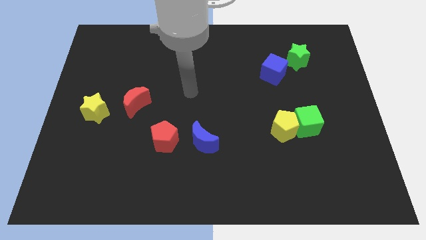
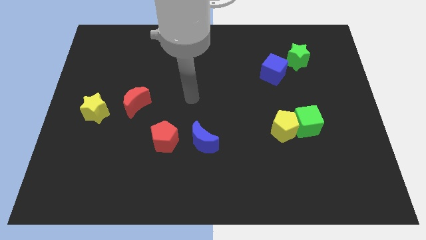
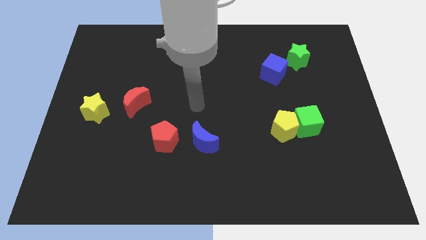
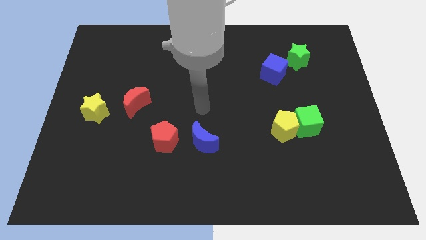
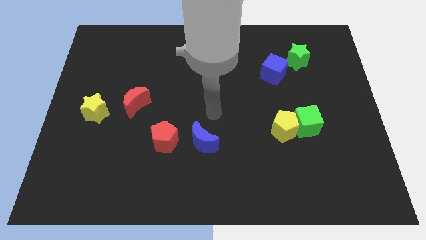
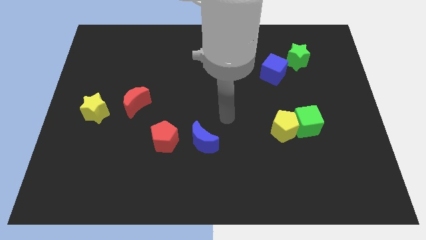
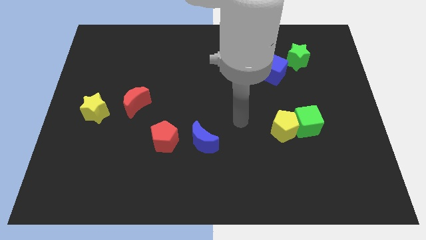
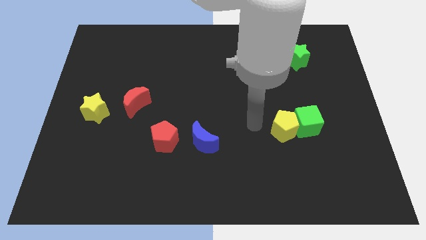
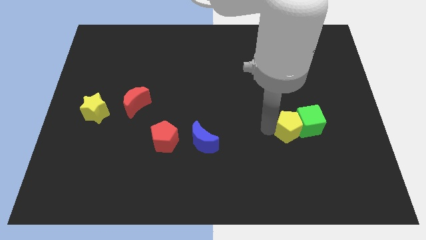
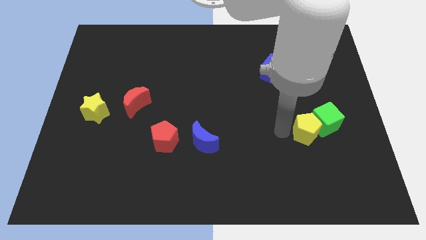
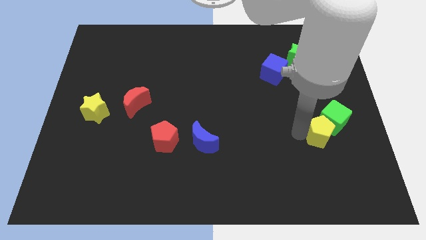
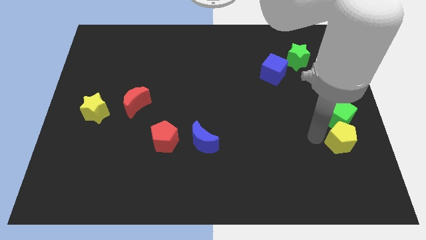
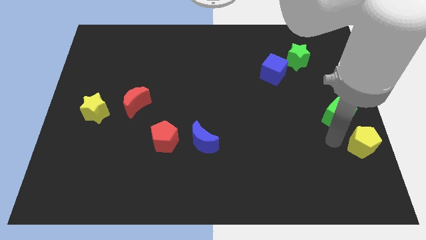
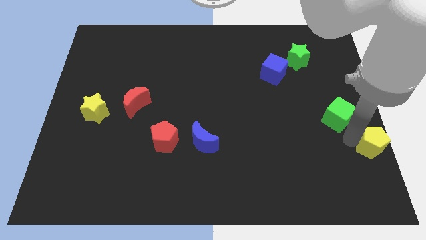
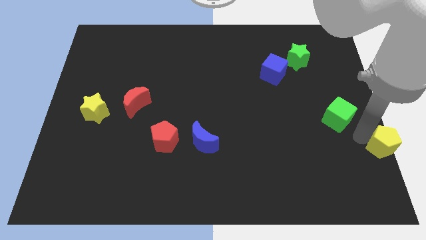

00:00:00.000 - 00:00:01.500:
separate the green cube from the yellow pentagon

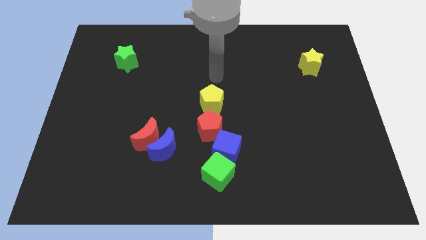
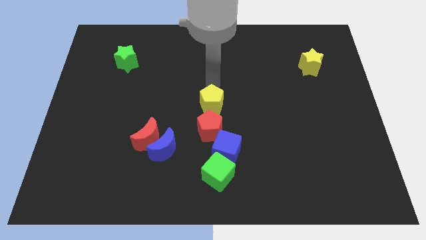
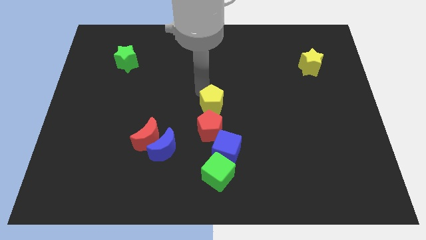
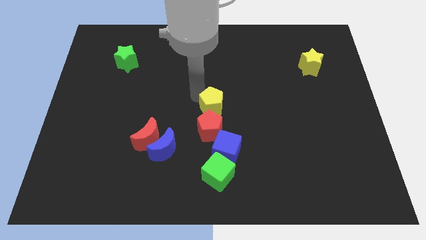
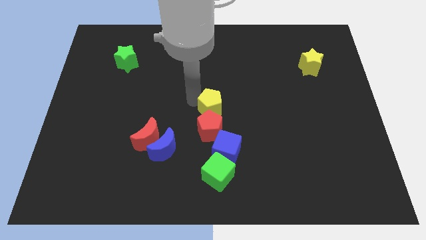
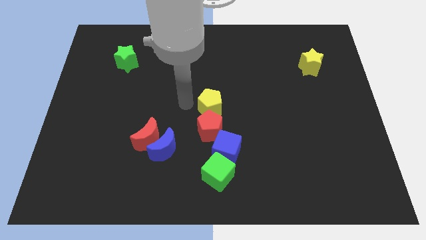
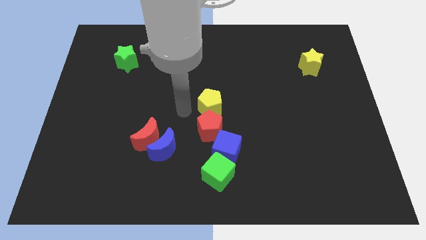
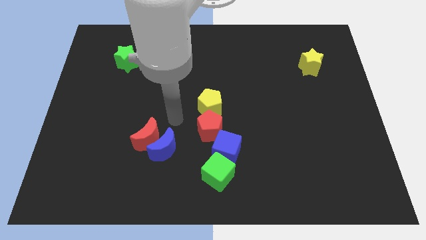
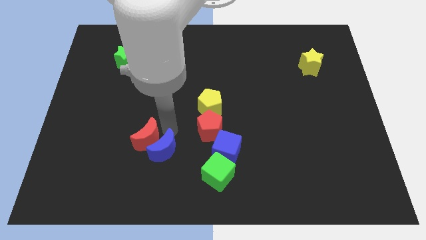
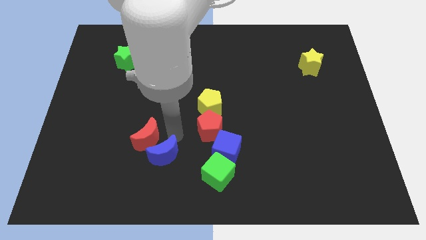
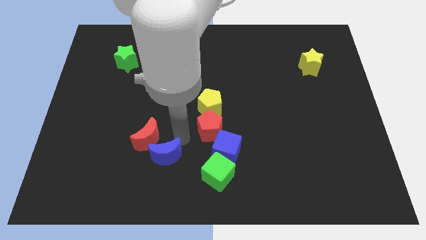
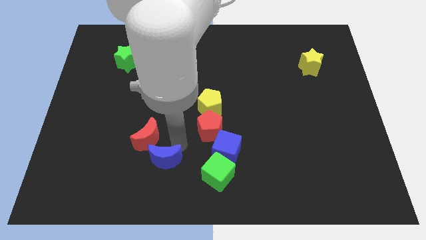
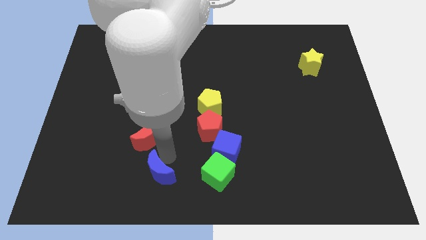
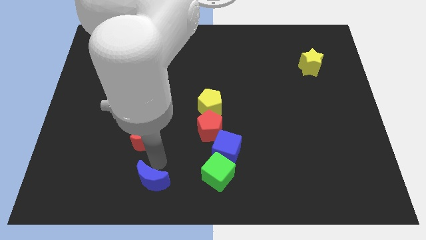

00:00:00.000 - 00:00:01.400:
move the red moon away from the blue moon

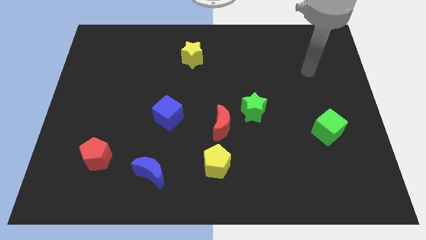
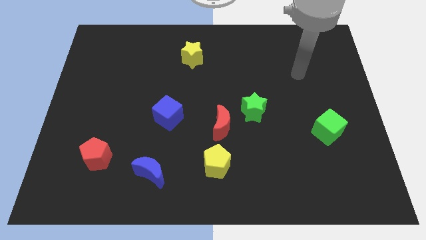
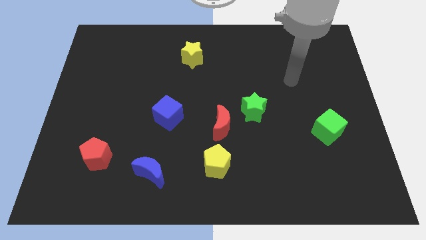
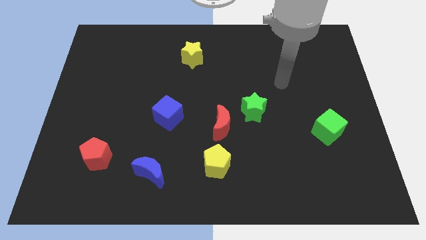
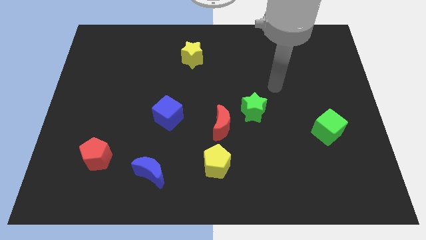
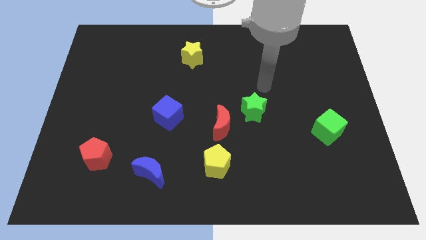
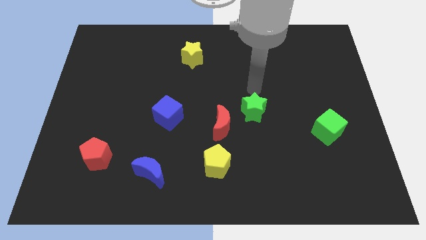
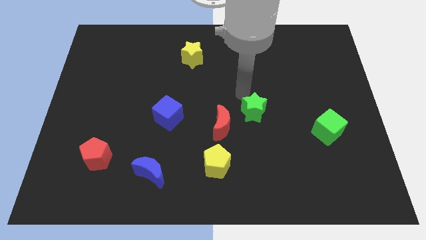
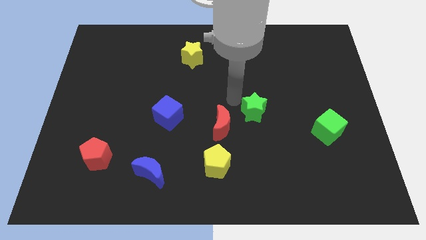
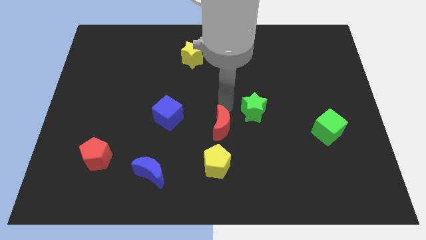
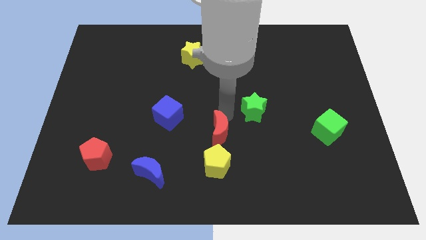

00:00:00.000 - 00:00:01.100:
pull the green star apart from the red moon

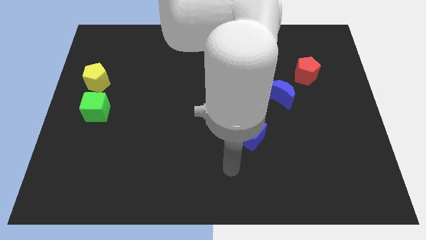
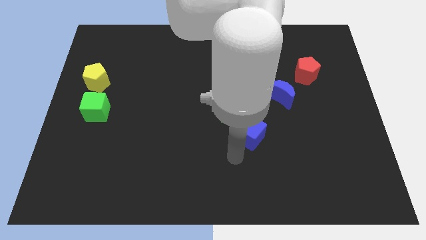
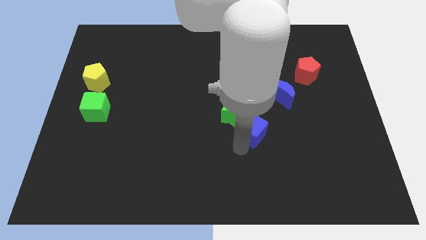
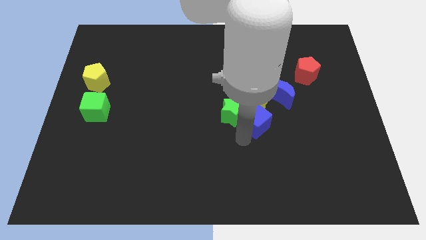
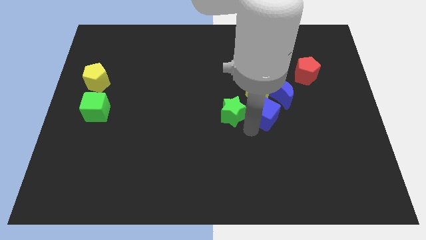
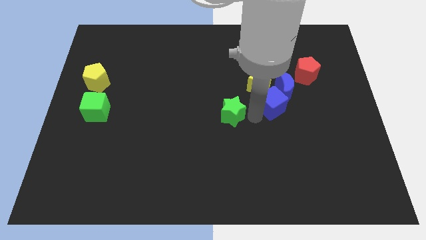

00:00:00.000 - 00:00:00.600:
pull the green star apart from the blue cube and yellow star

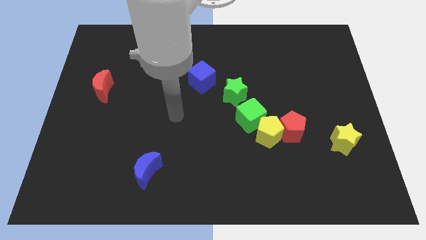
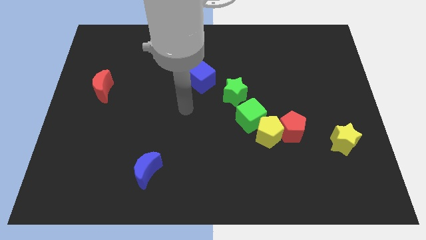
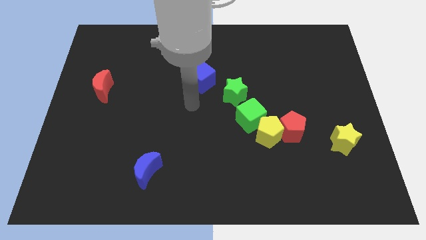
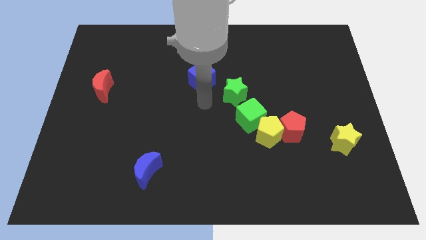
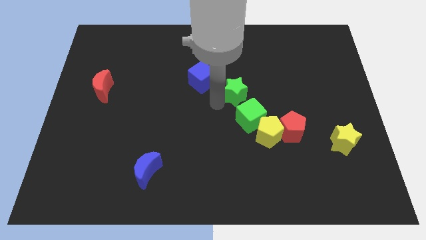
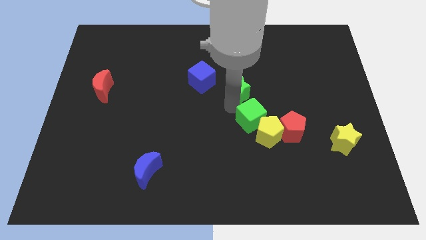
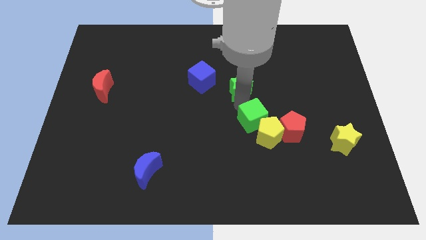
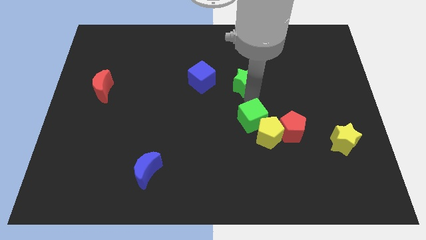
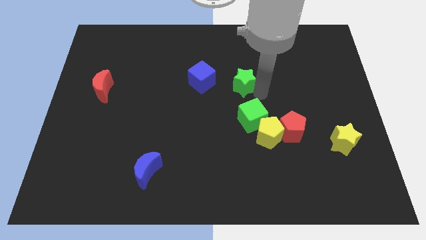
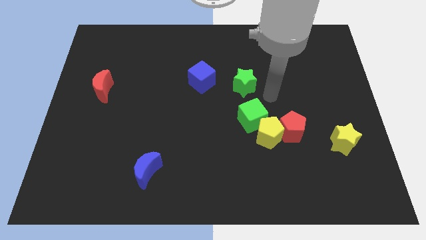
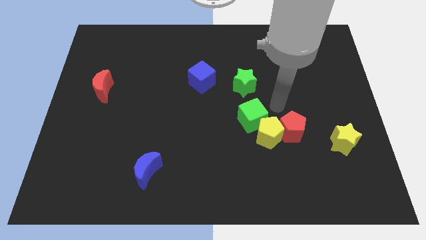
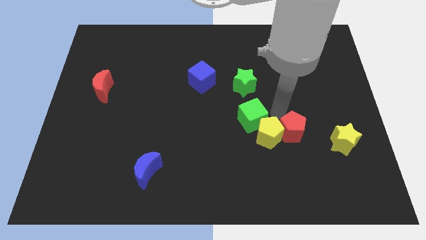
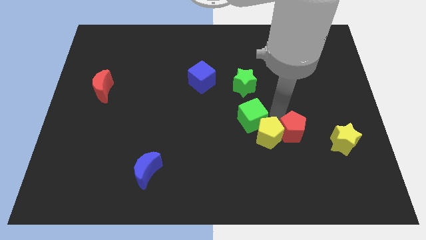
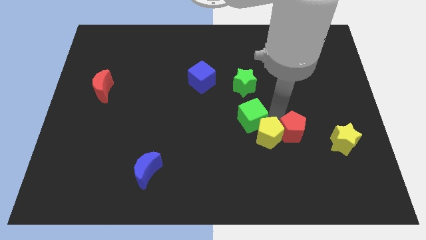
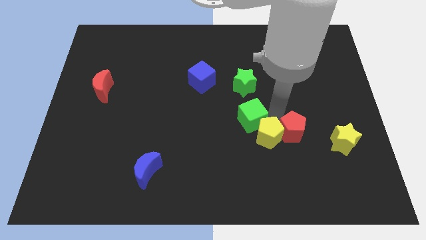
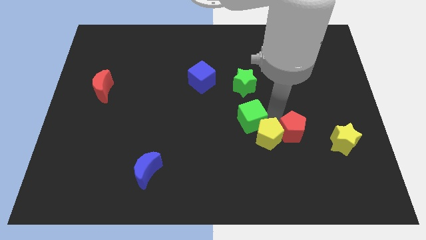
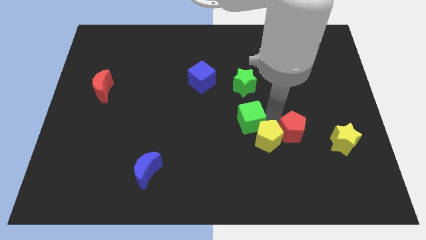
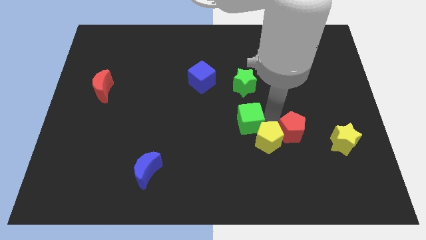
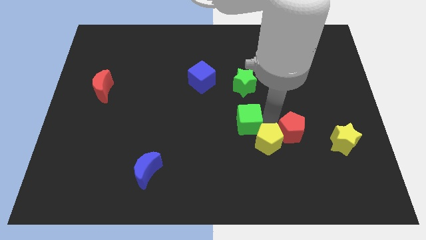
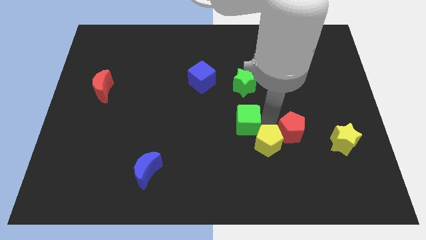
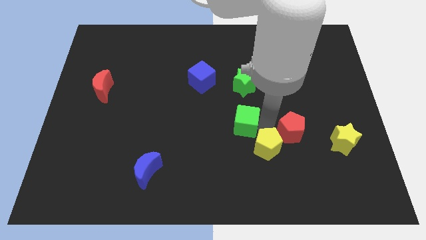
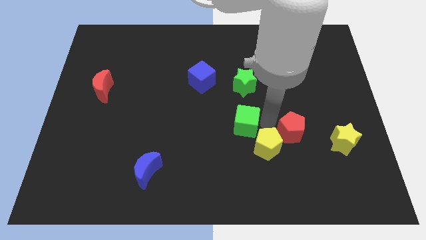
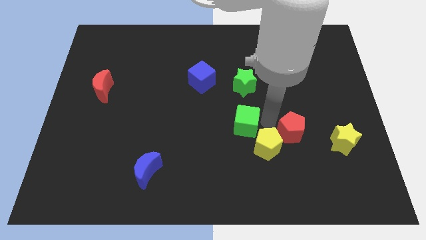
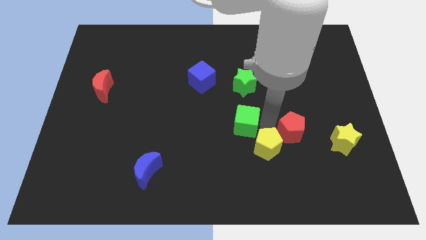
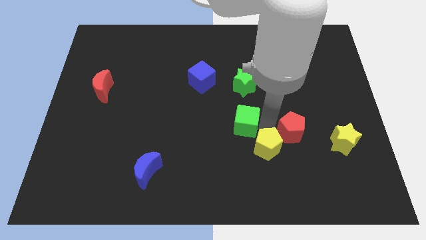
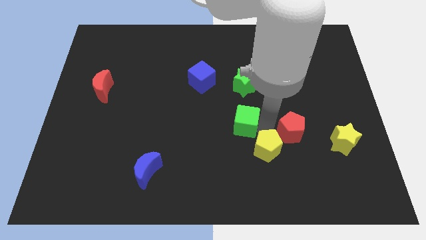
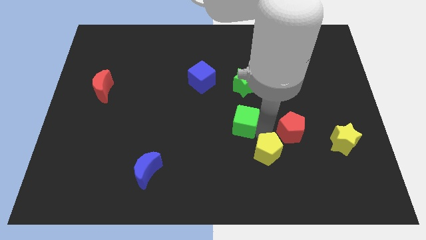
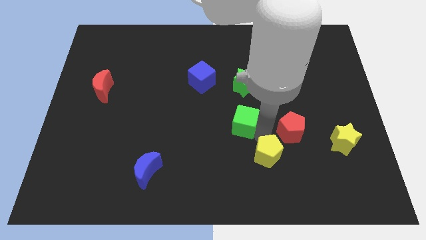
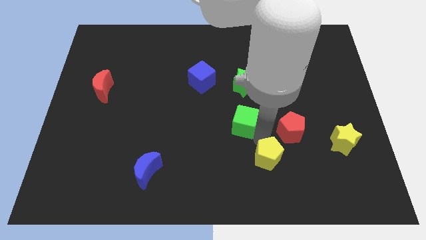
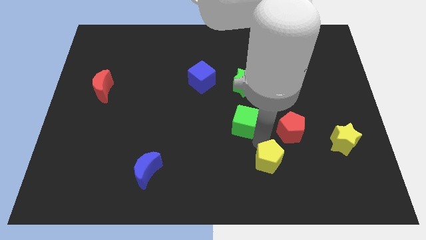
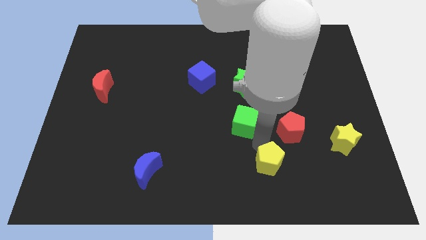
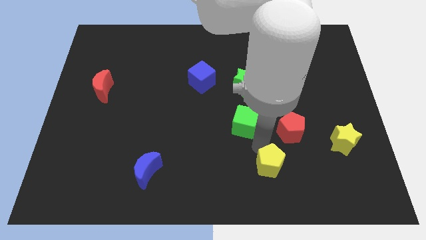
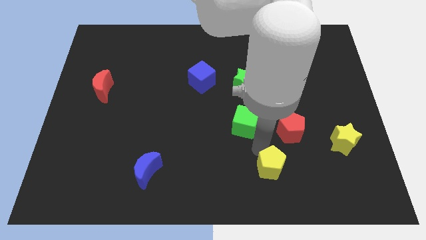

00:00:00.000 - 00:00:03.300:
separate the yellow pentagon from the red pentagon and green cube

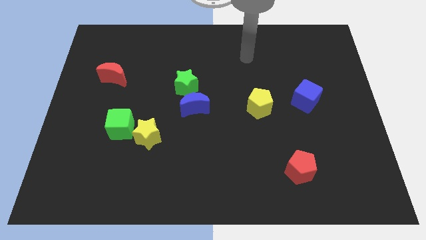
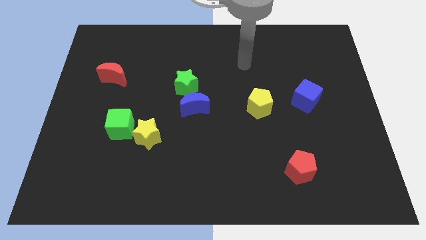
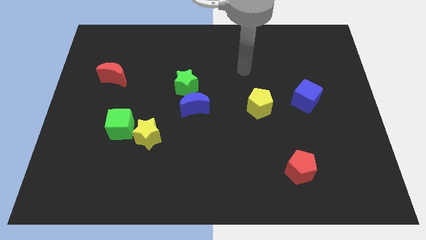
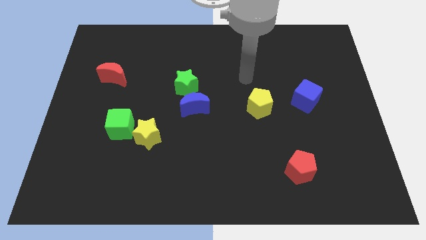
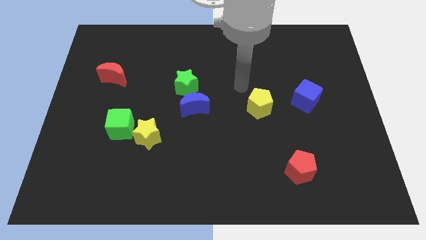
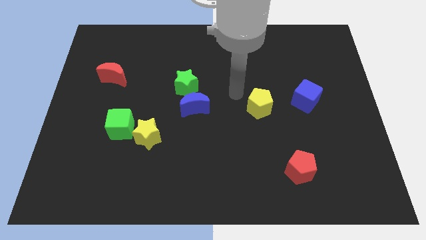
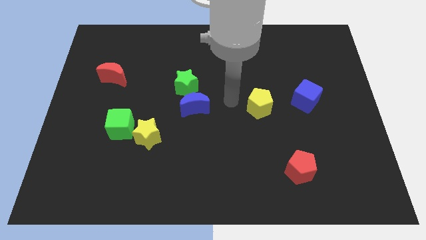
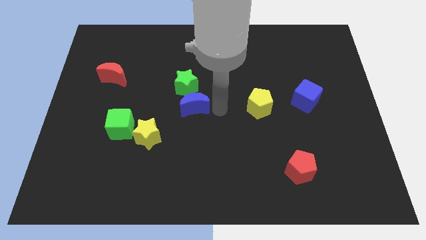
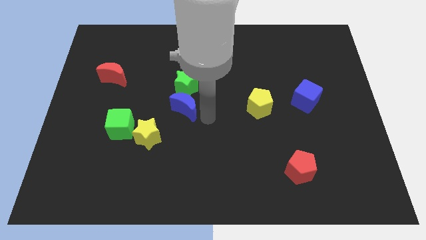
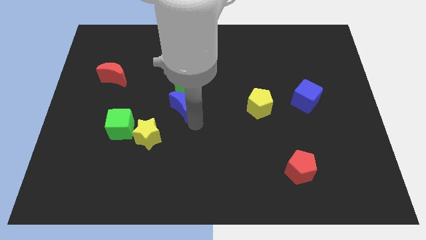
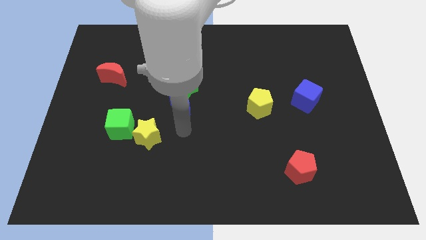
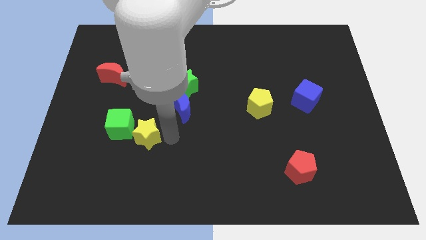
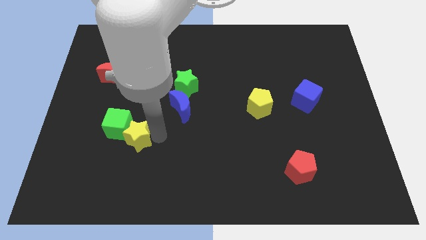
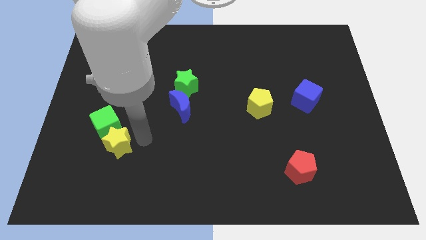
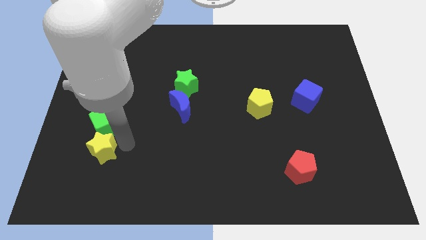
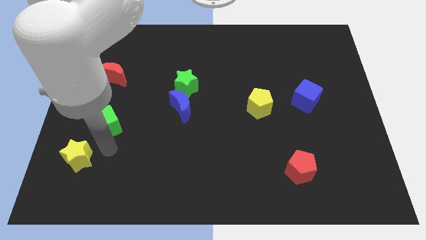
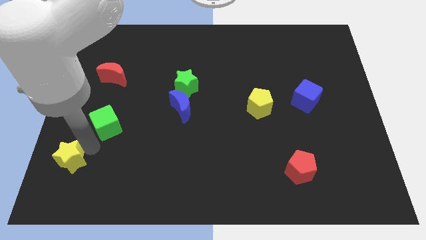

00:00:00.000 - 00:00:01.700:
move the green cube away from the yellow star
